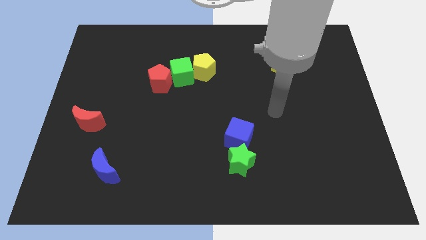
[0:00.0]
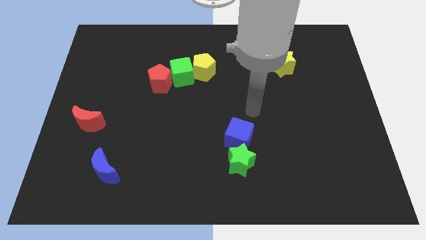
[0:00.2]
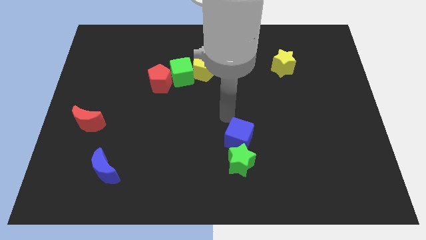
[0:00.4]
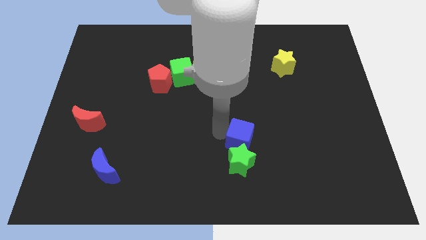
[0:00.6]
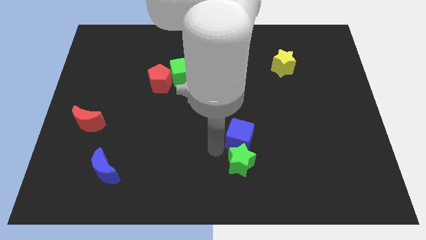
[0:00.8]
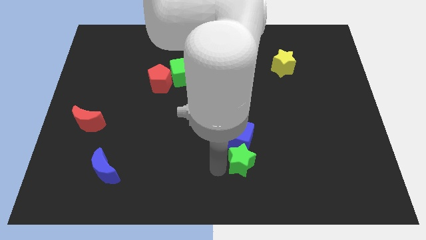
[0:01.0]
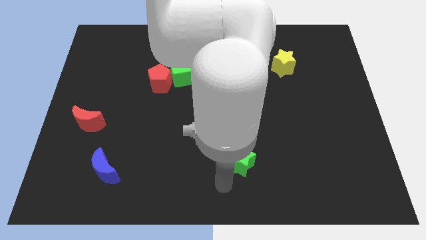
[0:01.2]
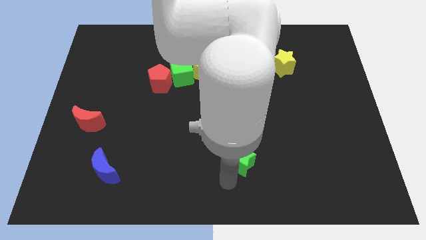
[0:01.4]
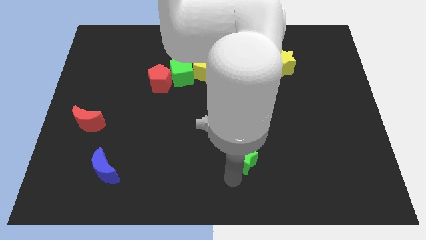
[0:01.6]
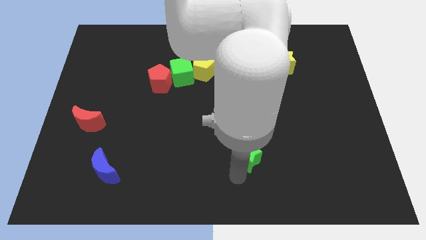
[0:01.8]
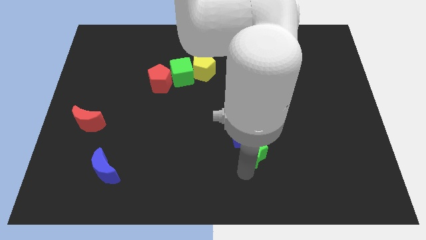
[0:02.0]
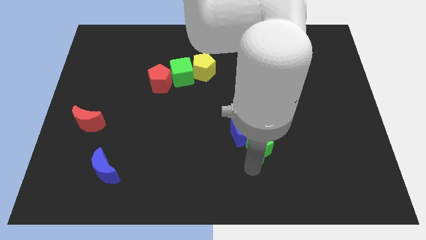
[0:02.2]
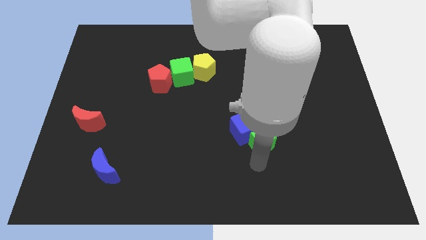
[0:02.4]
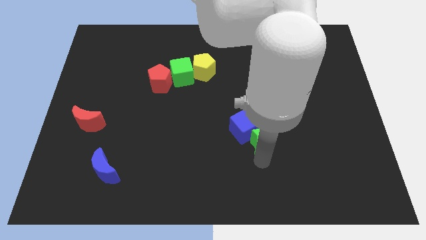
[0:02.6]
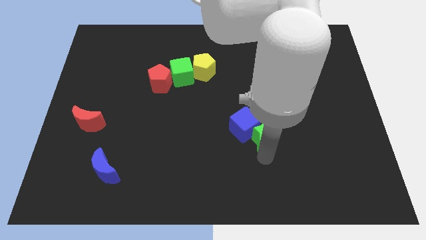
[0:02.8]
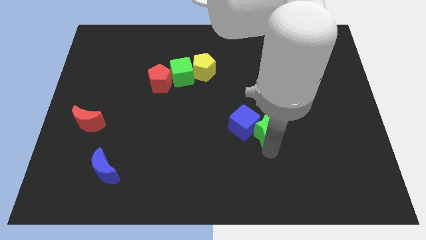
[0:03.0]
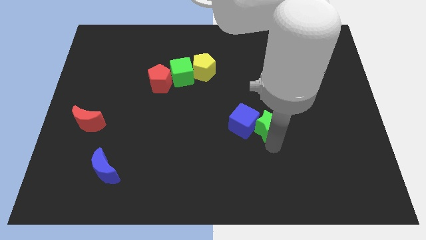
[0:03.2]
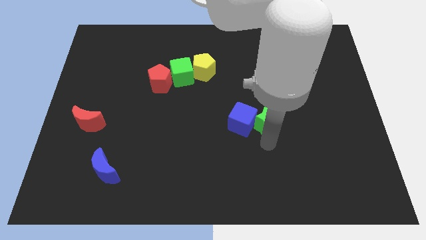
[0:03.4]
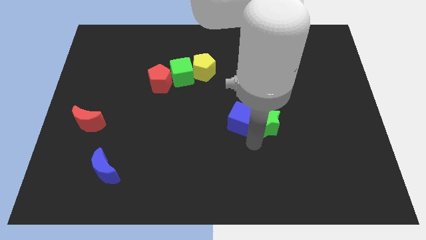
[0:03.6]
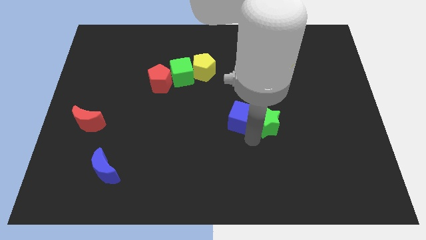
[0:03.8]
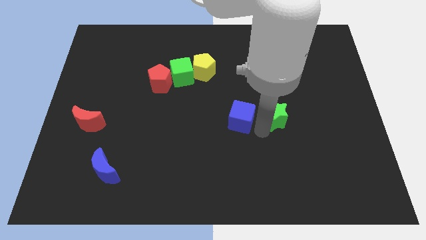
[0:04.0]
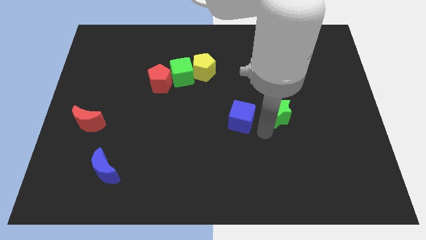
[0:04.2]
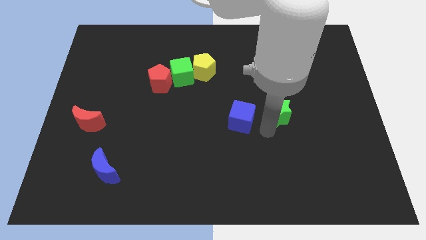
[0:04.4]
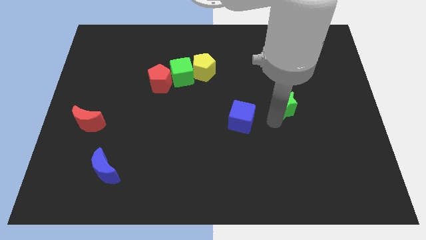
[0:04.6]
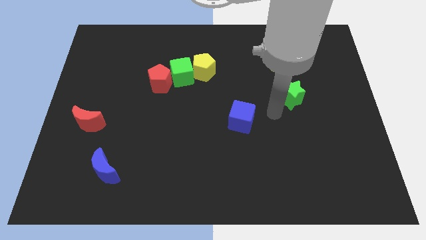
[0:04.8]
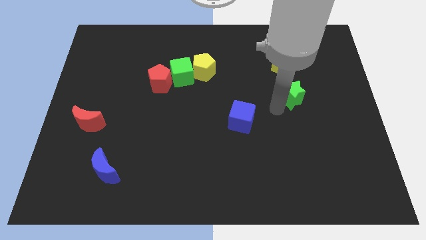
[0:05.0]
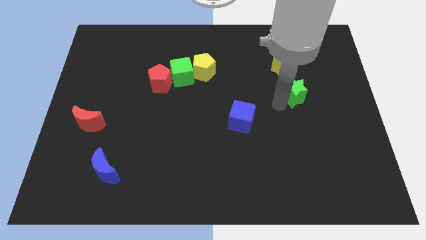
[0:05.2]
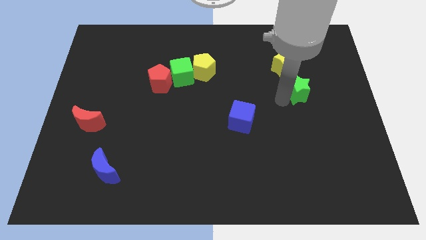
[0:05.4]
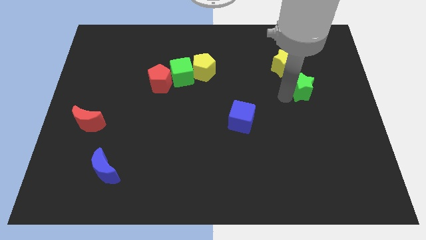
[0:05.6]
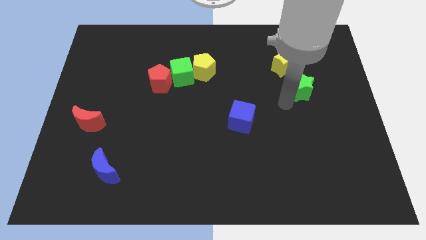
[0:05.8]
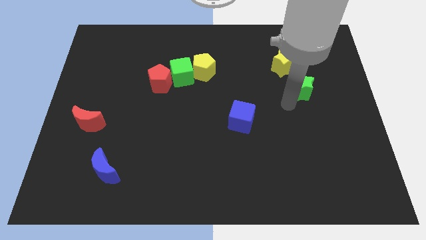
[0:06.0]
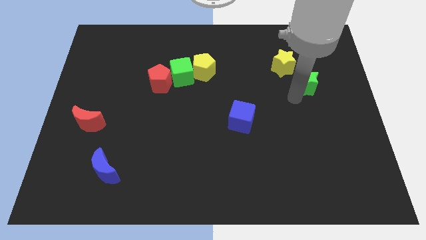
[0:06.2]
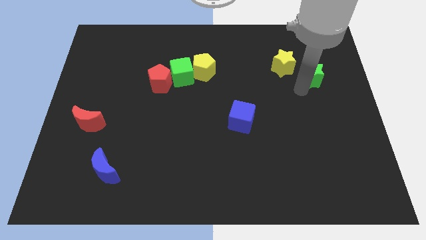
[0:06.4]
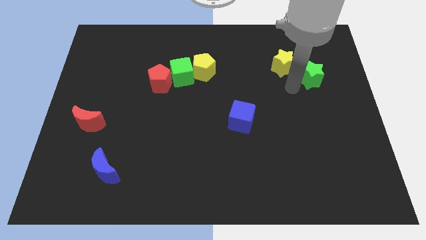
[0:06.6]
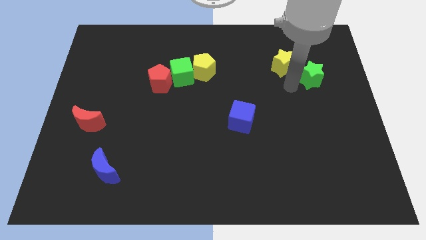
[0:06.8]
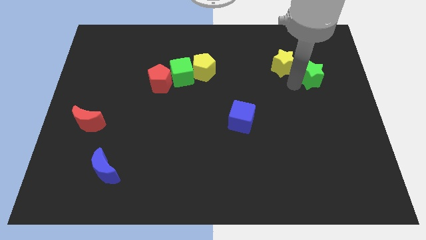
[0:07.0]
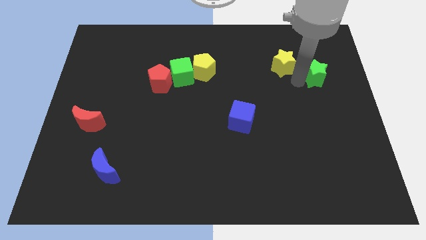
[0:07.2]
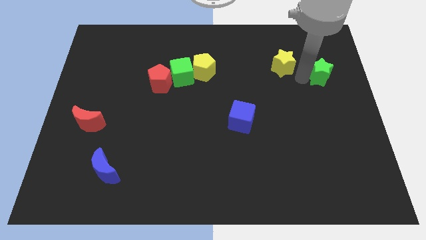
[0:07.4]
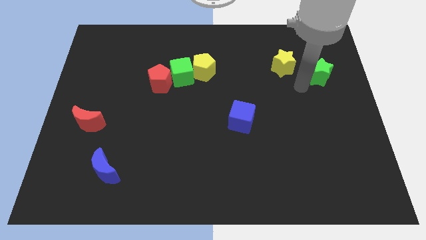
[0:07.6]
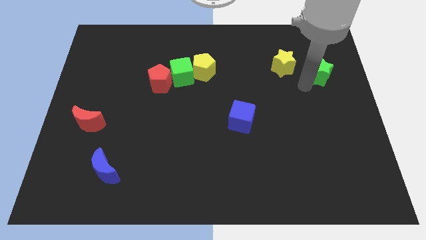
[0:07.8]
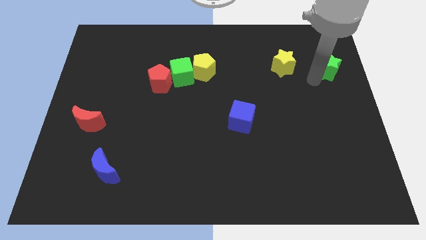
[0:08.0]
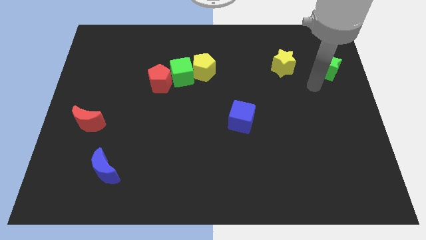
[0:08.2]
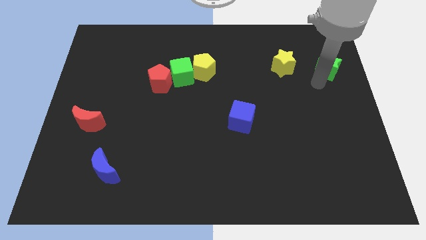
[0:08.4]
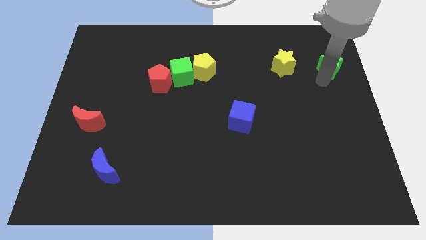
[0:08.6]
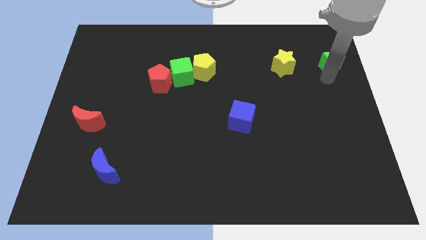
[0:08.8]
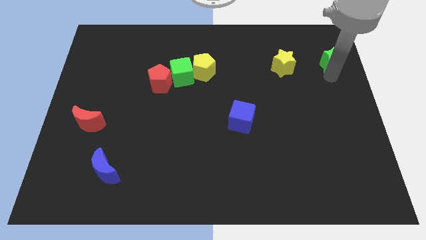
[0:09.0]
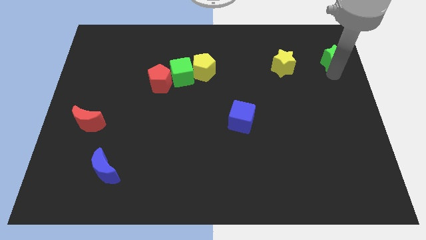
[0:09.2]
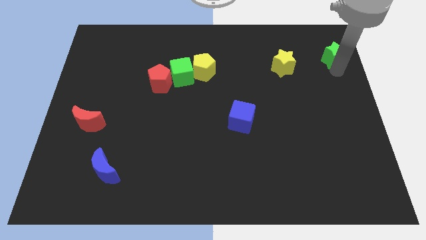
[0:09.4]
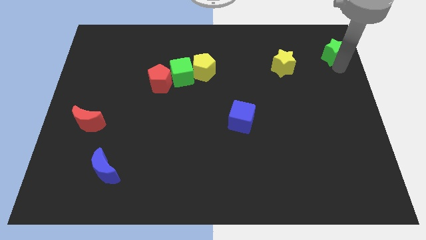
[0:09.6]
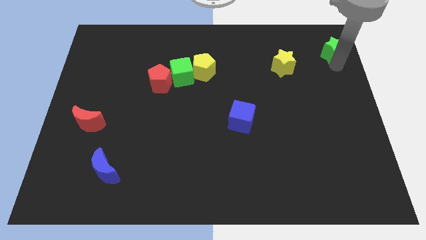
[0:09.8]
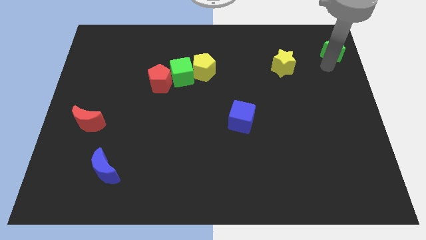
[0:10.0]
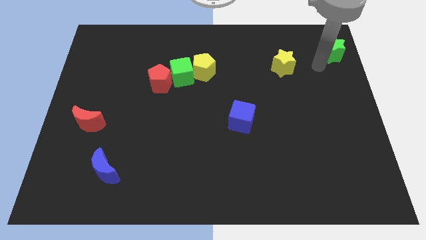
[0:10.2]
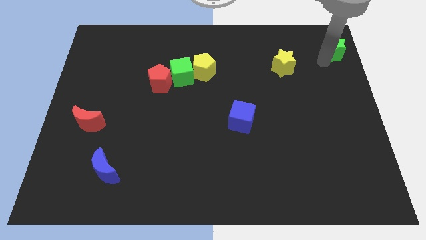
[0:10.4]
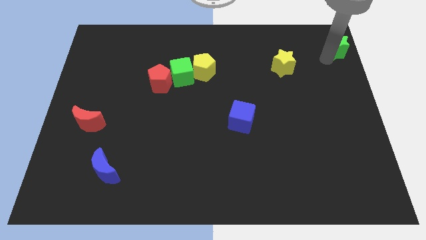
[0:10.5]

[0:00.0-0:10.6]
slide the green star to the upper right corner

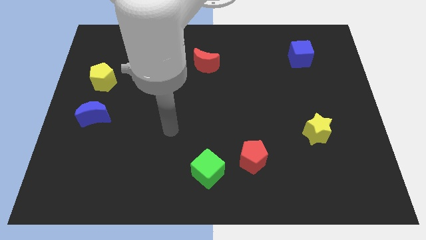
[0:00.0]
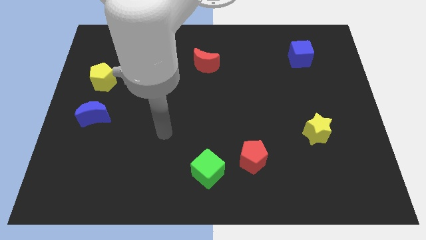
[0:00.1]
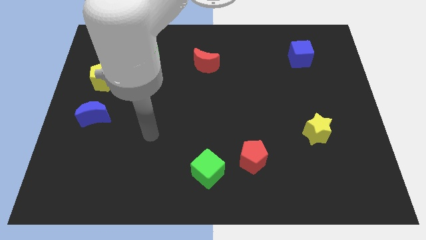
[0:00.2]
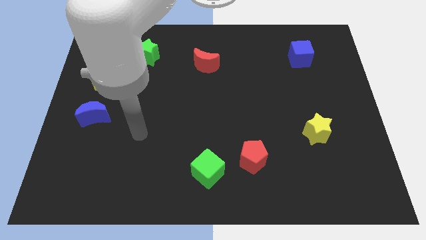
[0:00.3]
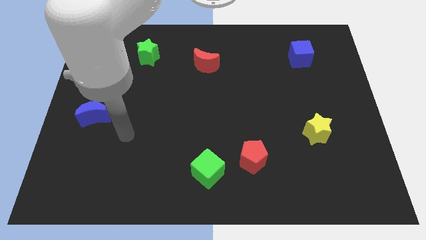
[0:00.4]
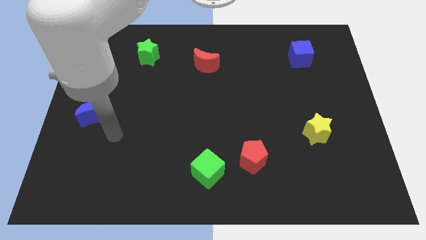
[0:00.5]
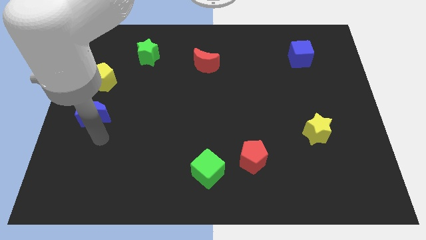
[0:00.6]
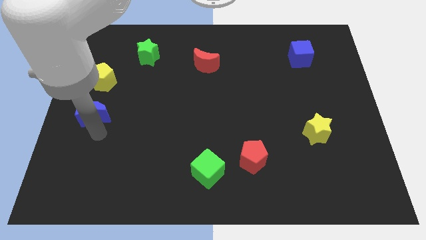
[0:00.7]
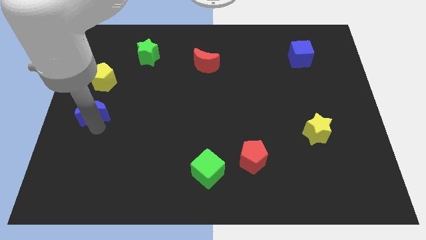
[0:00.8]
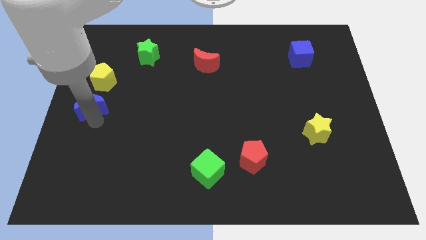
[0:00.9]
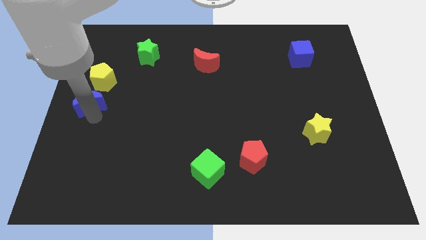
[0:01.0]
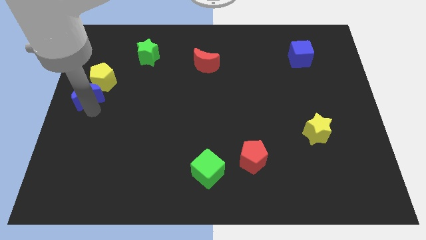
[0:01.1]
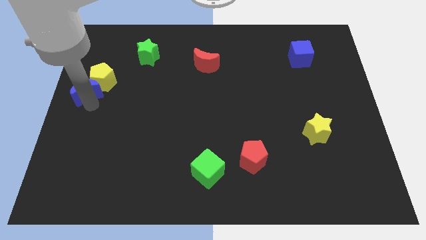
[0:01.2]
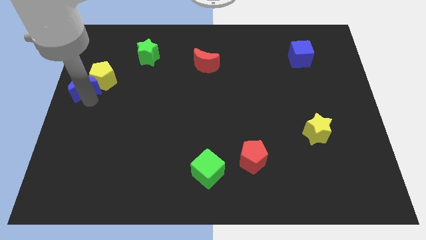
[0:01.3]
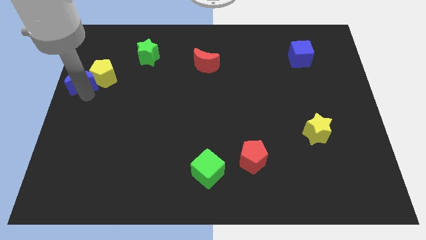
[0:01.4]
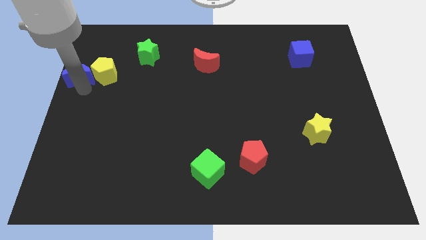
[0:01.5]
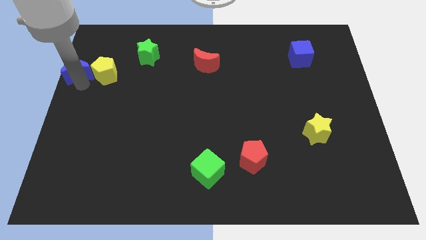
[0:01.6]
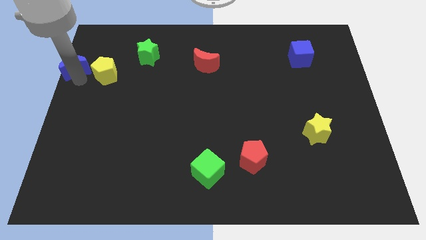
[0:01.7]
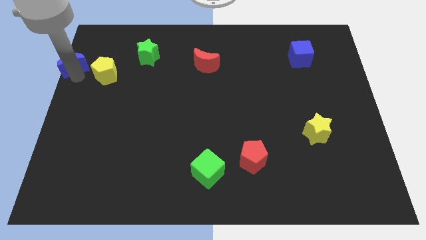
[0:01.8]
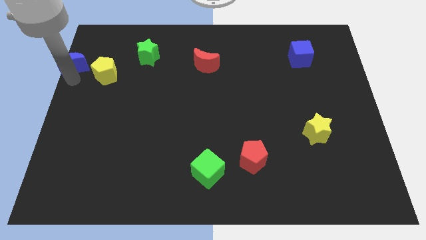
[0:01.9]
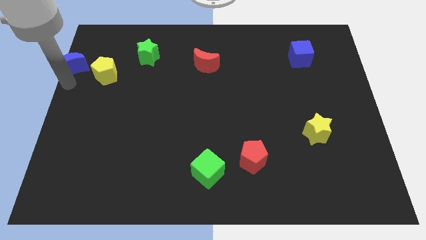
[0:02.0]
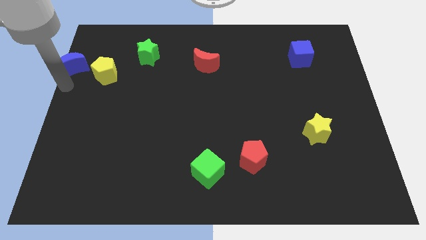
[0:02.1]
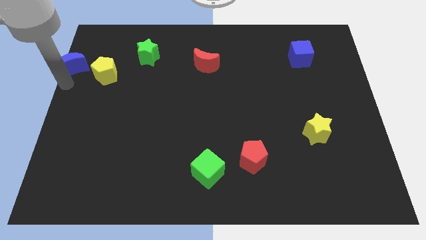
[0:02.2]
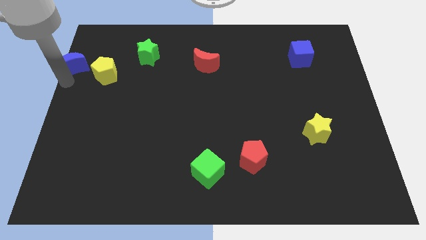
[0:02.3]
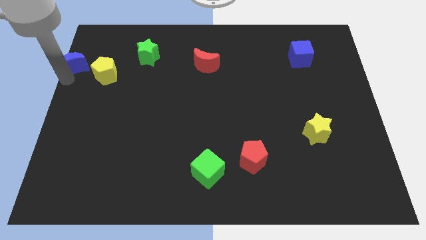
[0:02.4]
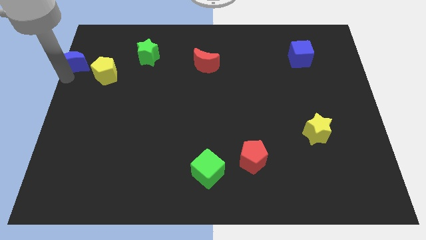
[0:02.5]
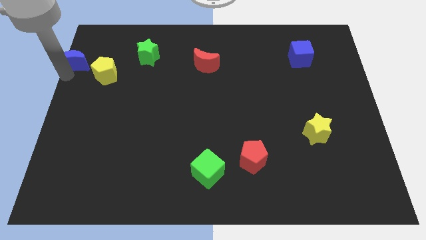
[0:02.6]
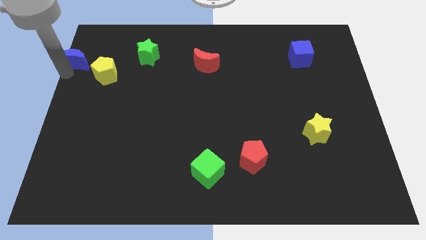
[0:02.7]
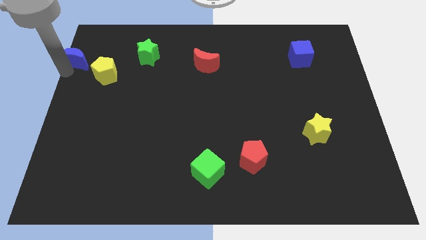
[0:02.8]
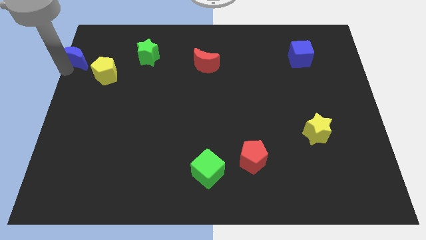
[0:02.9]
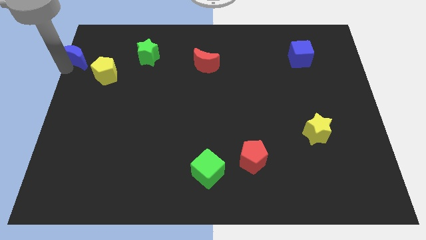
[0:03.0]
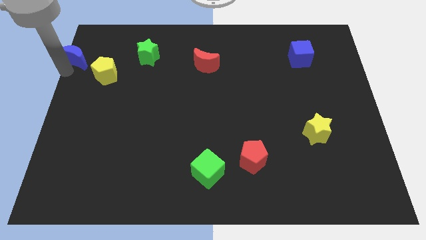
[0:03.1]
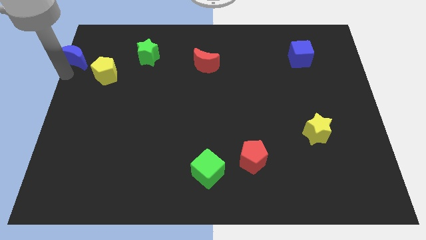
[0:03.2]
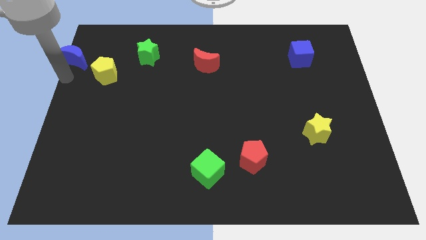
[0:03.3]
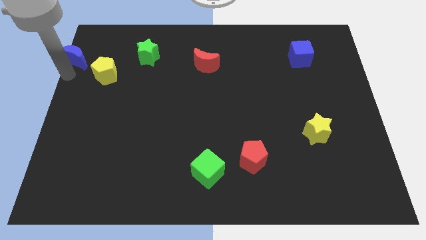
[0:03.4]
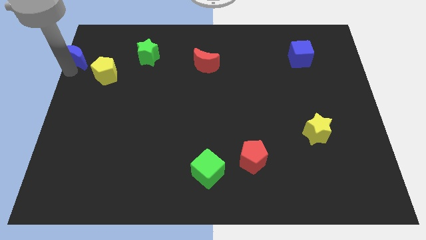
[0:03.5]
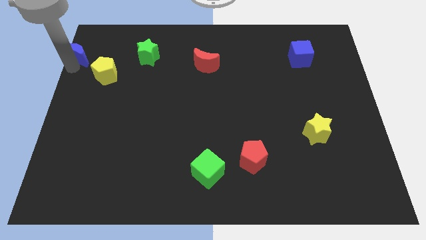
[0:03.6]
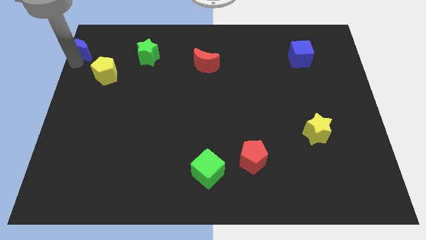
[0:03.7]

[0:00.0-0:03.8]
put the blue moon to the top left
